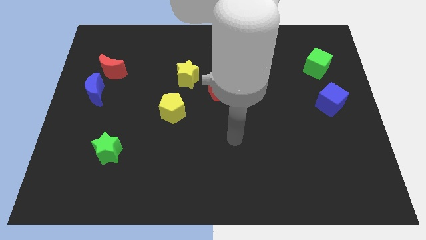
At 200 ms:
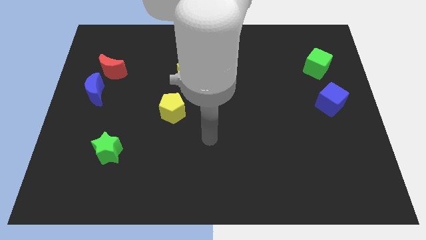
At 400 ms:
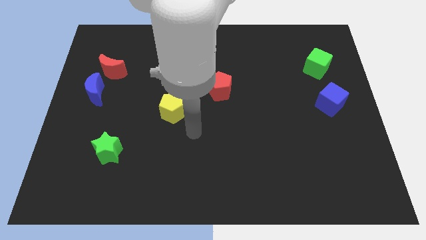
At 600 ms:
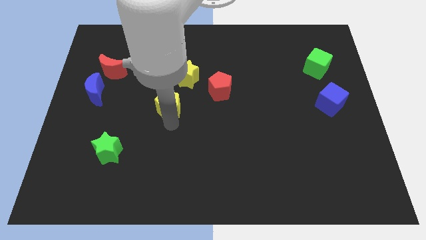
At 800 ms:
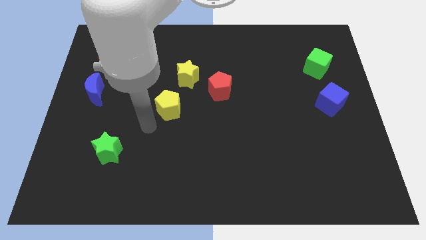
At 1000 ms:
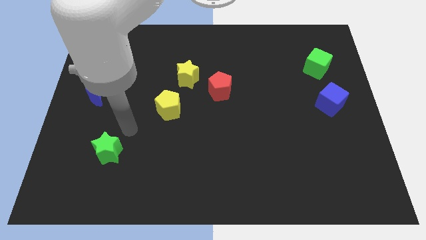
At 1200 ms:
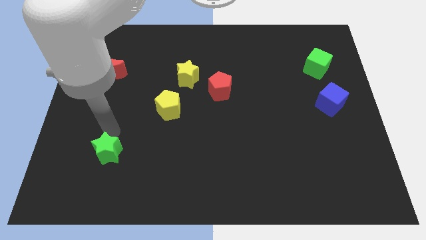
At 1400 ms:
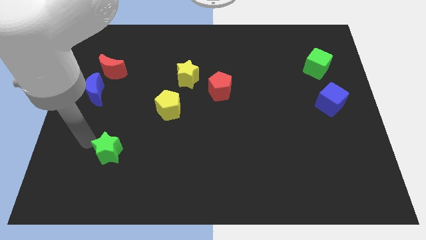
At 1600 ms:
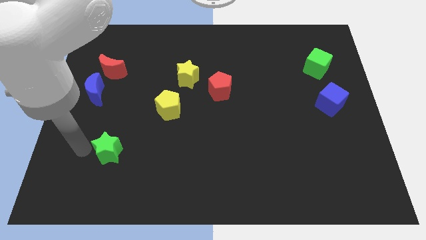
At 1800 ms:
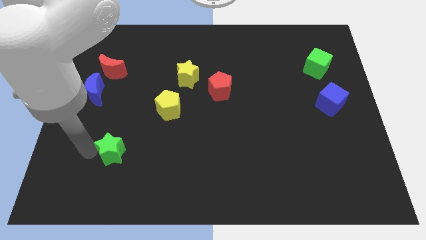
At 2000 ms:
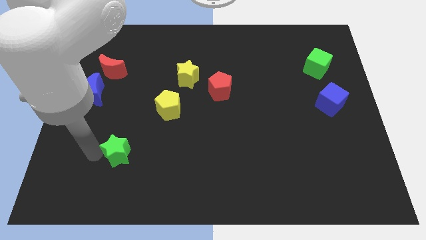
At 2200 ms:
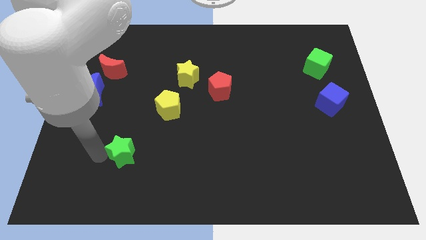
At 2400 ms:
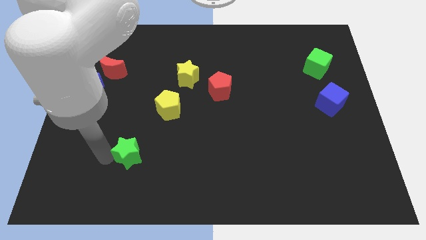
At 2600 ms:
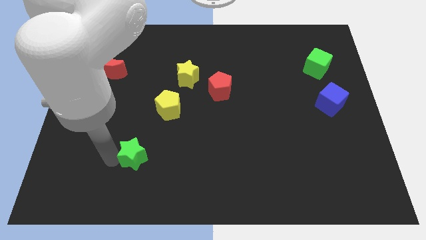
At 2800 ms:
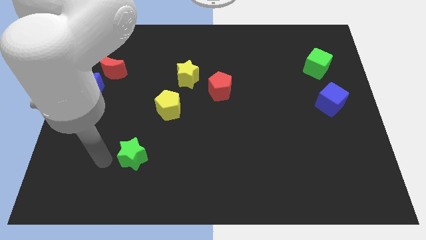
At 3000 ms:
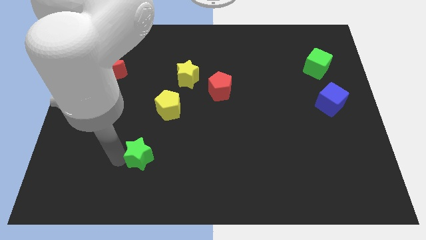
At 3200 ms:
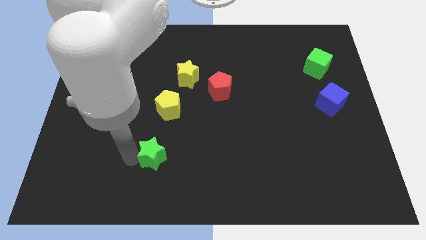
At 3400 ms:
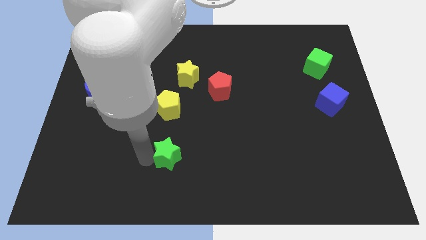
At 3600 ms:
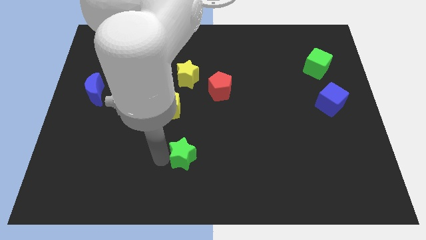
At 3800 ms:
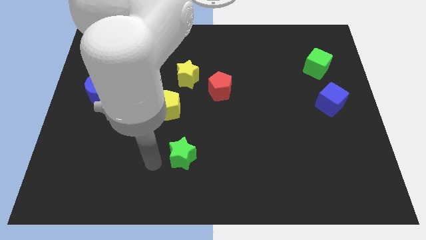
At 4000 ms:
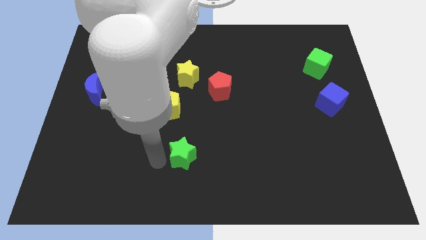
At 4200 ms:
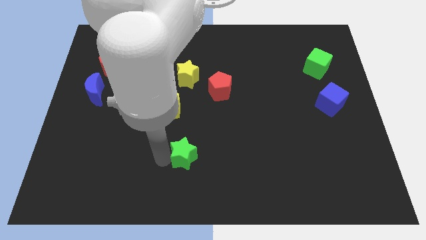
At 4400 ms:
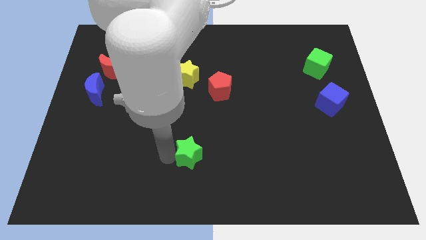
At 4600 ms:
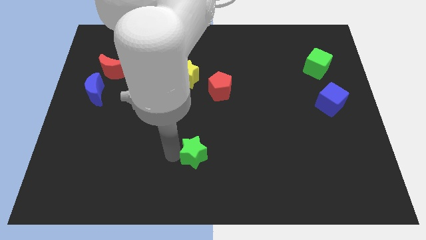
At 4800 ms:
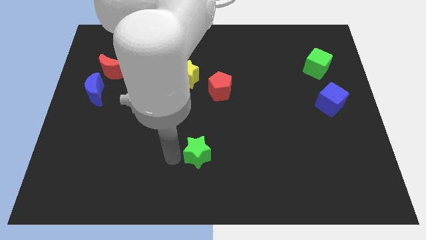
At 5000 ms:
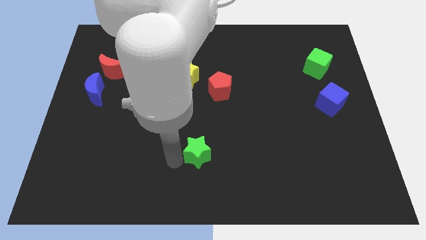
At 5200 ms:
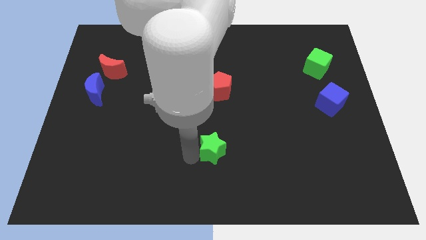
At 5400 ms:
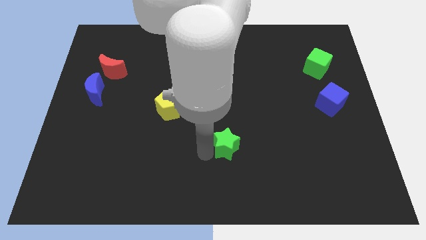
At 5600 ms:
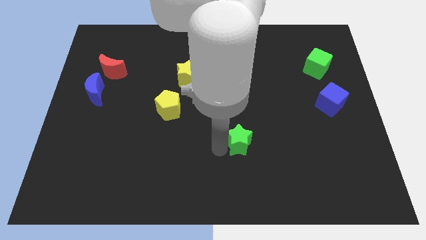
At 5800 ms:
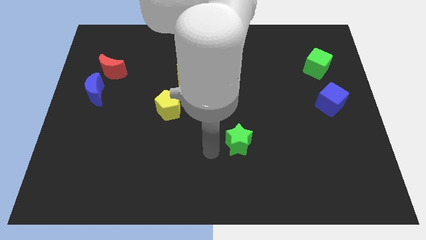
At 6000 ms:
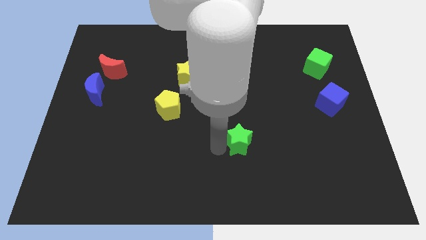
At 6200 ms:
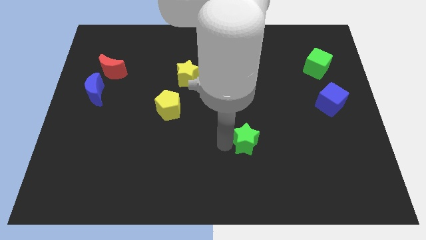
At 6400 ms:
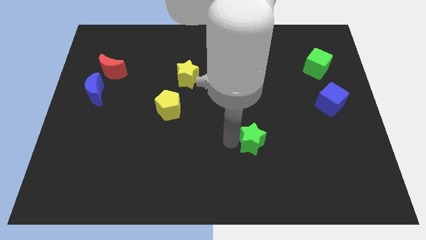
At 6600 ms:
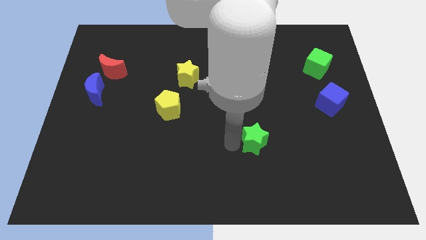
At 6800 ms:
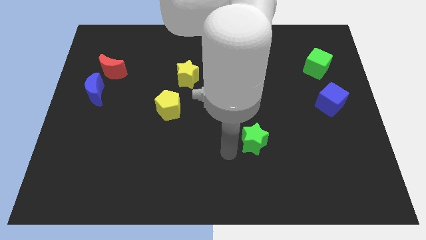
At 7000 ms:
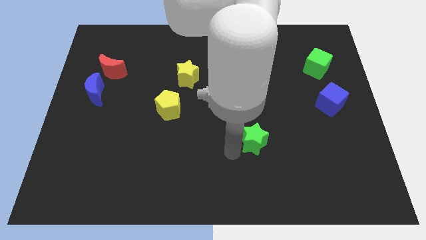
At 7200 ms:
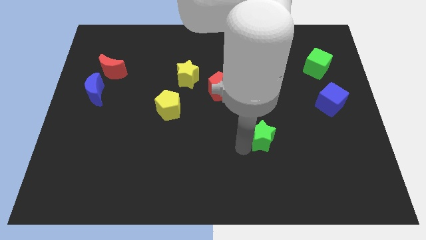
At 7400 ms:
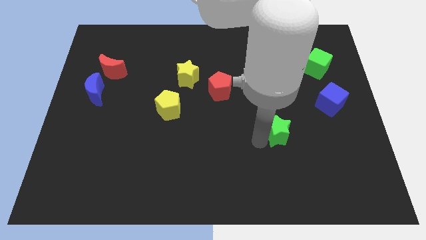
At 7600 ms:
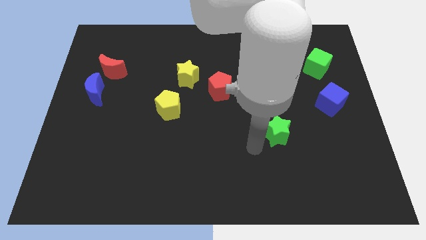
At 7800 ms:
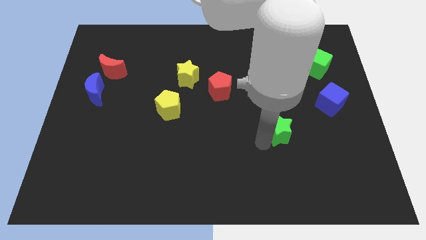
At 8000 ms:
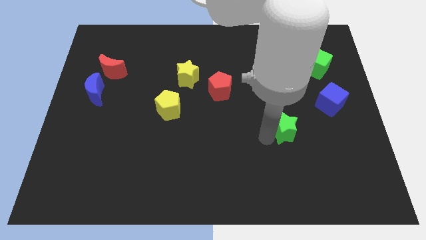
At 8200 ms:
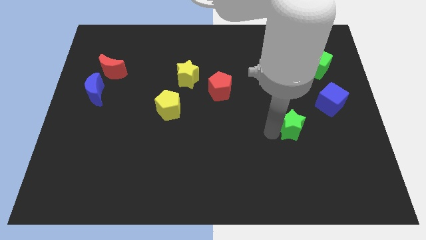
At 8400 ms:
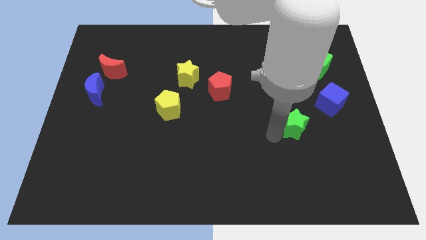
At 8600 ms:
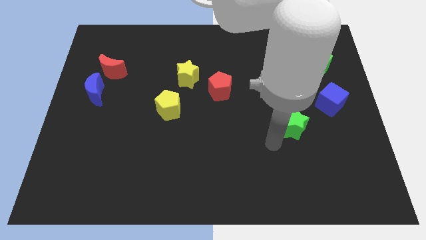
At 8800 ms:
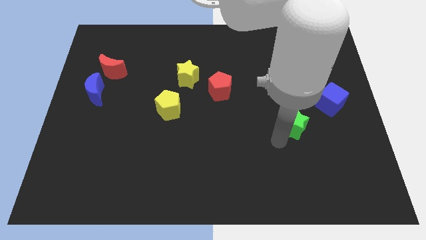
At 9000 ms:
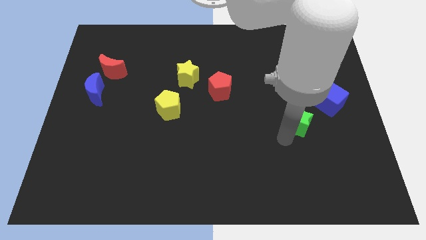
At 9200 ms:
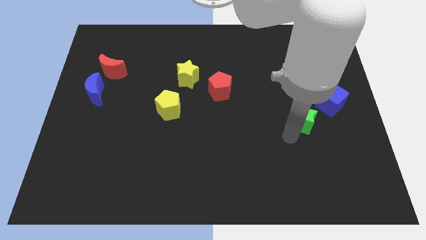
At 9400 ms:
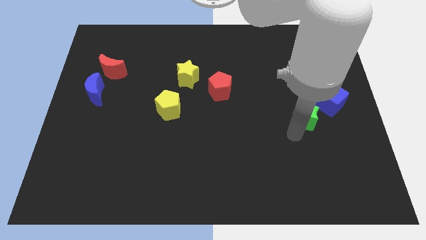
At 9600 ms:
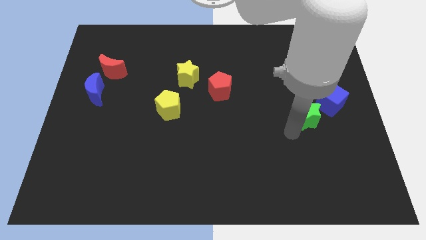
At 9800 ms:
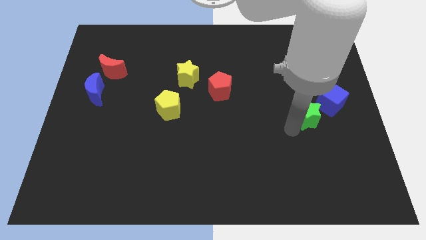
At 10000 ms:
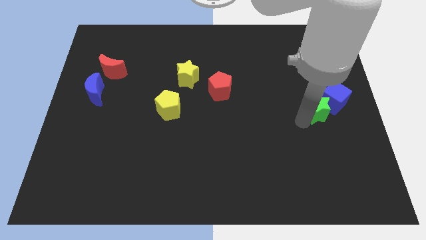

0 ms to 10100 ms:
slide the green star to the blue cube

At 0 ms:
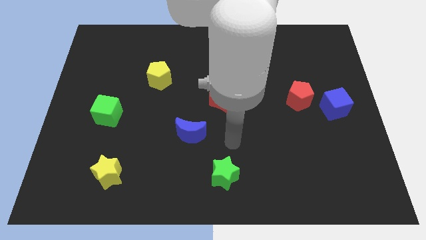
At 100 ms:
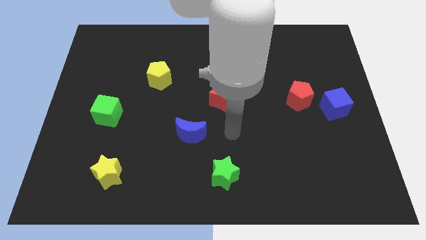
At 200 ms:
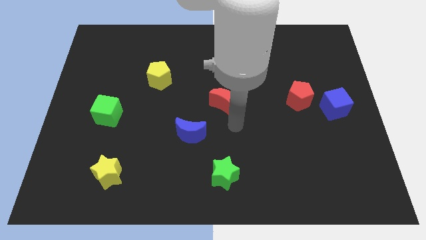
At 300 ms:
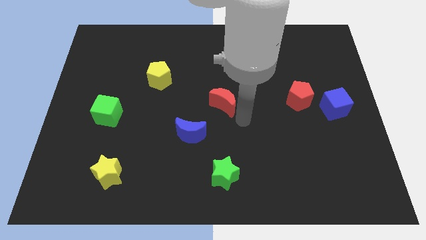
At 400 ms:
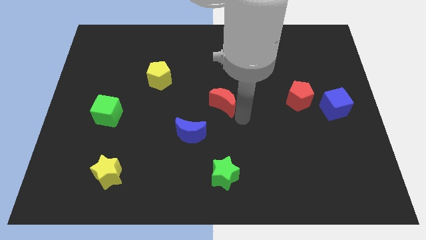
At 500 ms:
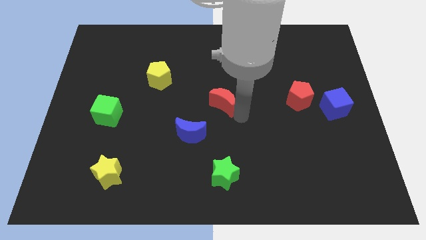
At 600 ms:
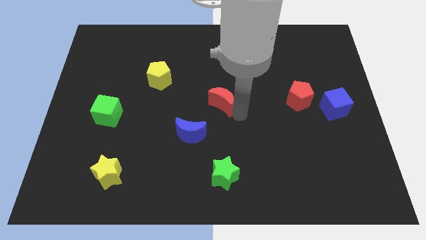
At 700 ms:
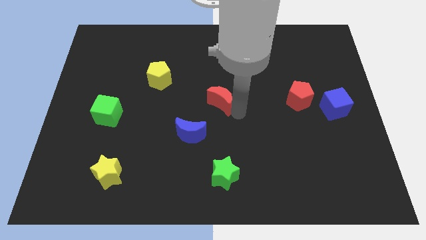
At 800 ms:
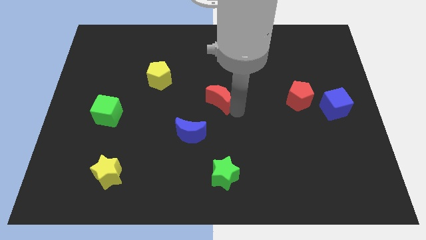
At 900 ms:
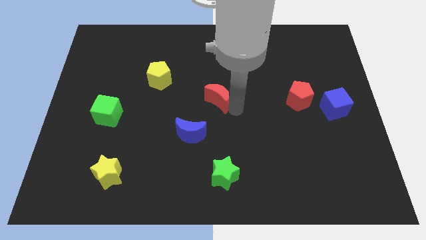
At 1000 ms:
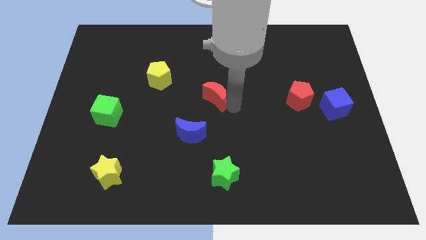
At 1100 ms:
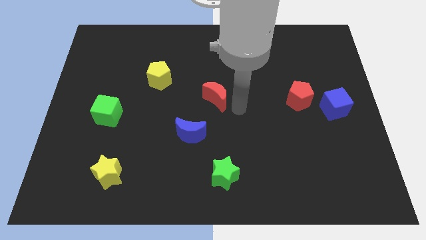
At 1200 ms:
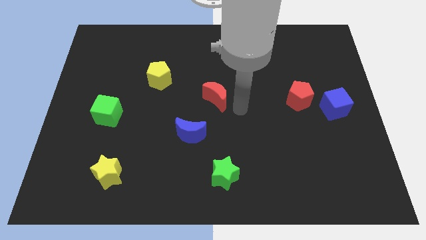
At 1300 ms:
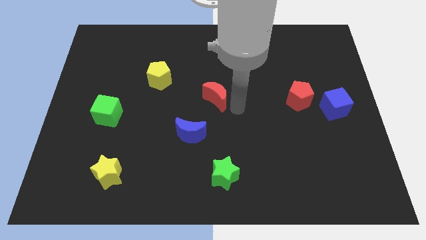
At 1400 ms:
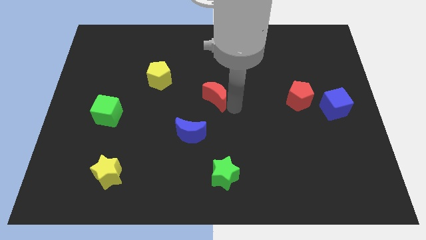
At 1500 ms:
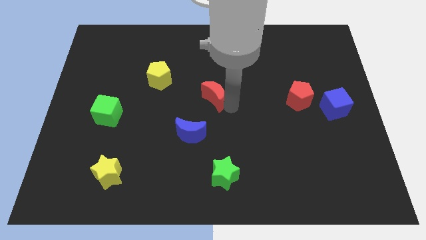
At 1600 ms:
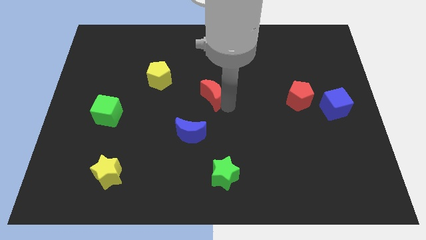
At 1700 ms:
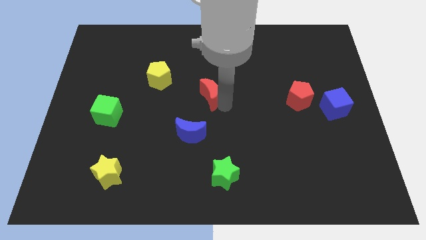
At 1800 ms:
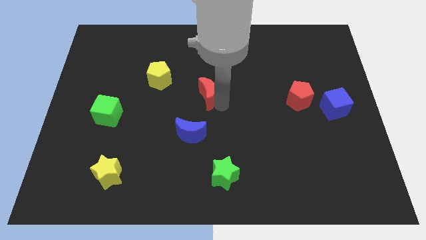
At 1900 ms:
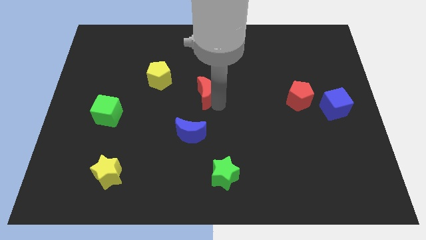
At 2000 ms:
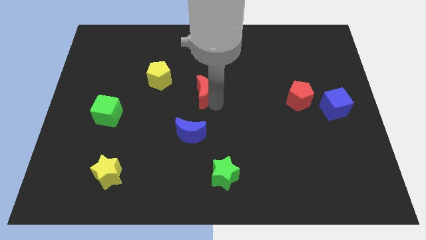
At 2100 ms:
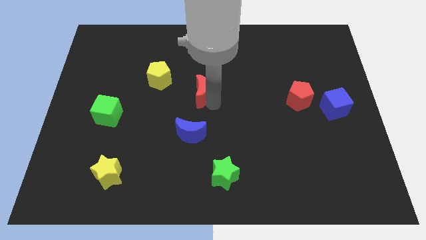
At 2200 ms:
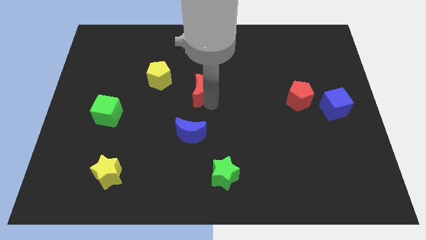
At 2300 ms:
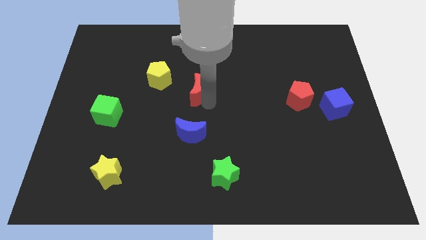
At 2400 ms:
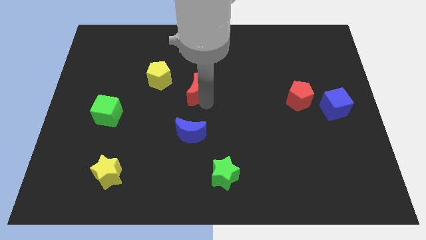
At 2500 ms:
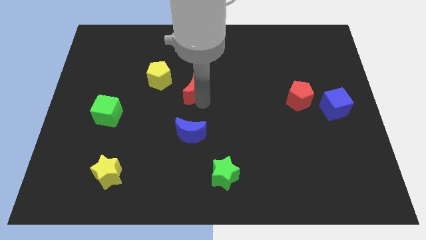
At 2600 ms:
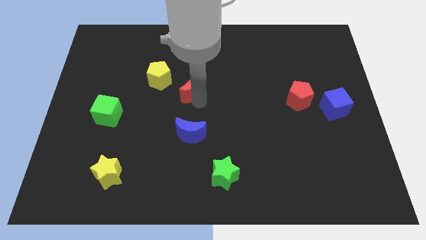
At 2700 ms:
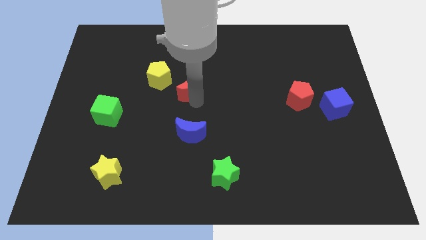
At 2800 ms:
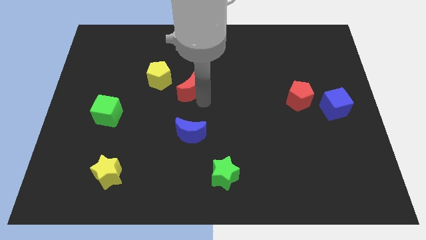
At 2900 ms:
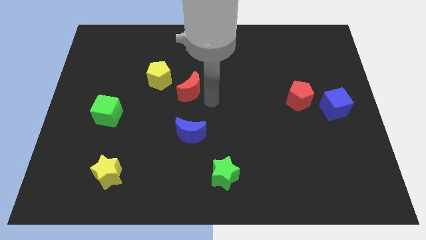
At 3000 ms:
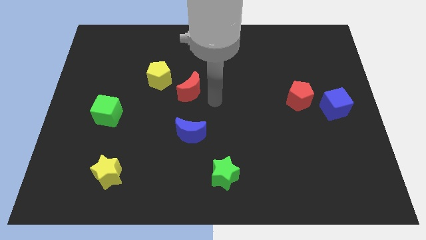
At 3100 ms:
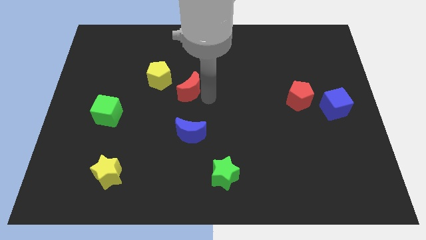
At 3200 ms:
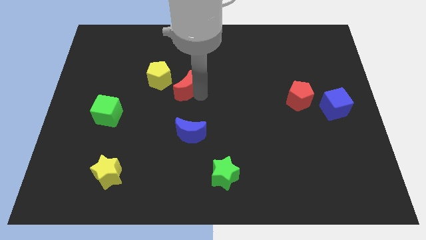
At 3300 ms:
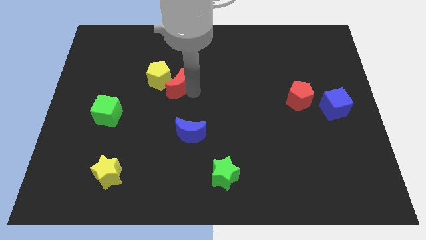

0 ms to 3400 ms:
move the red moon towards the yellow pentagon
